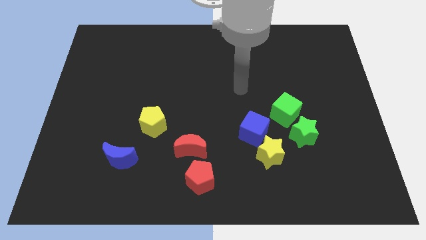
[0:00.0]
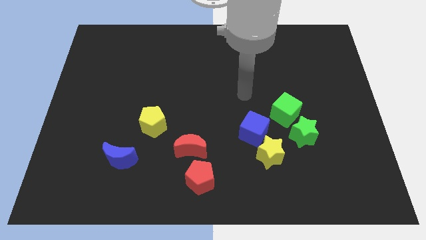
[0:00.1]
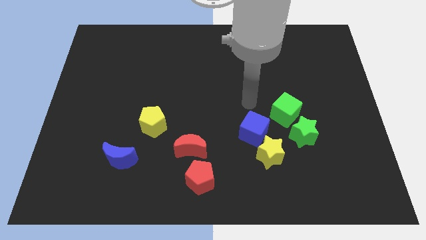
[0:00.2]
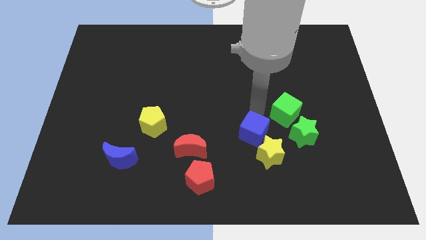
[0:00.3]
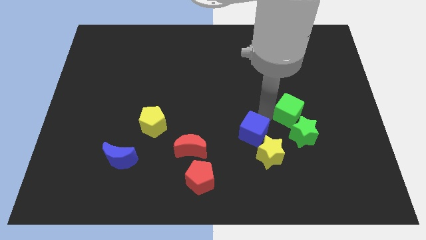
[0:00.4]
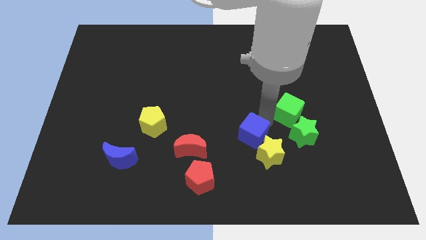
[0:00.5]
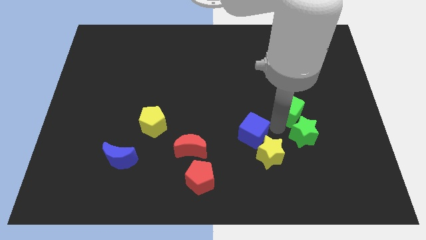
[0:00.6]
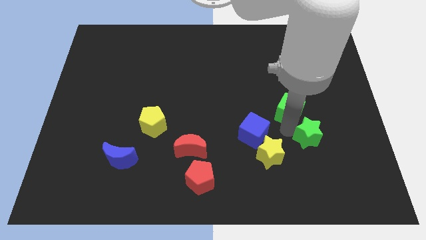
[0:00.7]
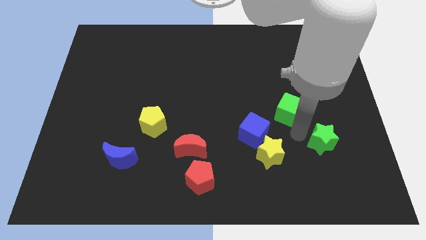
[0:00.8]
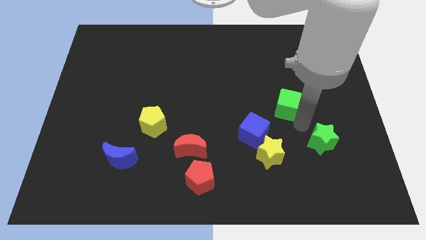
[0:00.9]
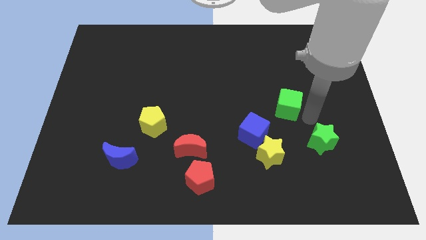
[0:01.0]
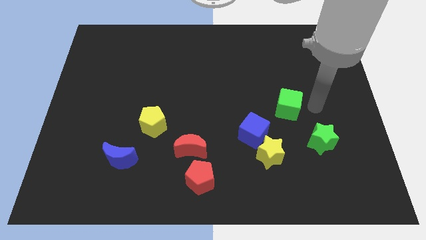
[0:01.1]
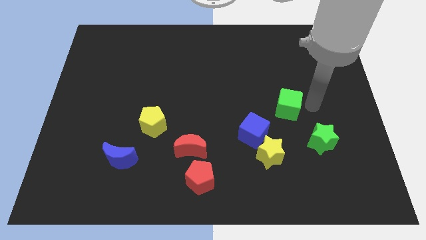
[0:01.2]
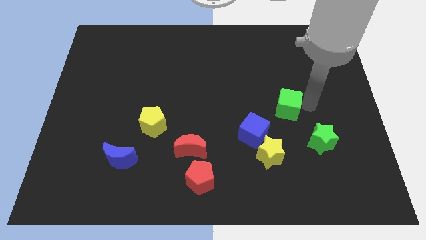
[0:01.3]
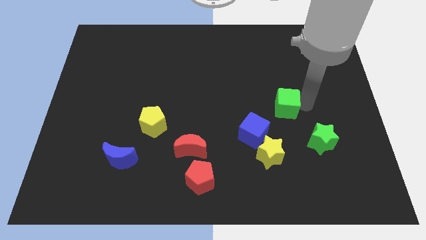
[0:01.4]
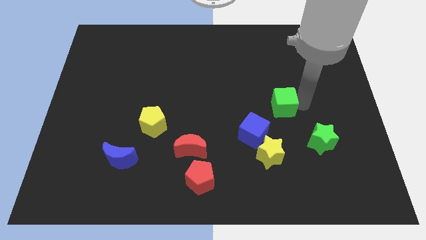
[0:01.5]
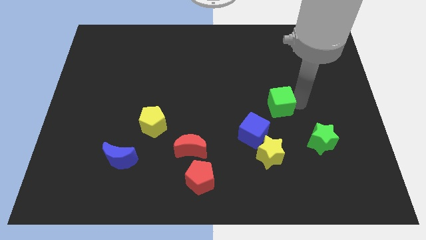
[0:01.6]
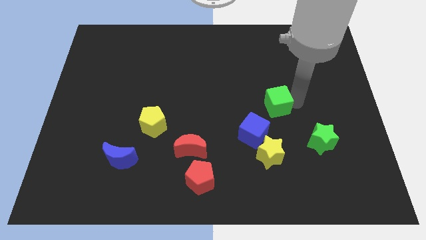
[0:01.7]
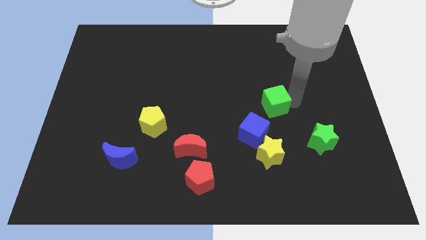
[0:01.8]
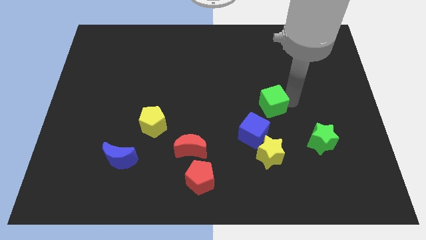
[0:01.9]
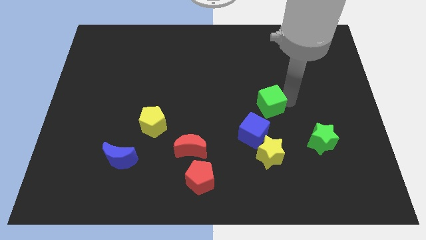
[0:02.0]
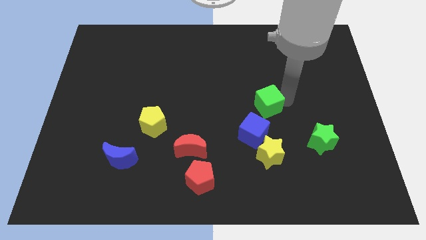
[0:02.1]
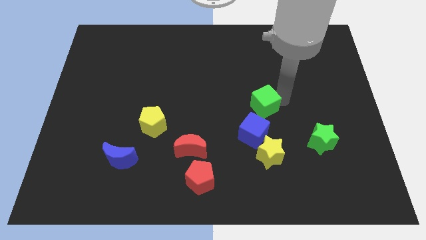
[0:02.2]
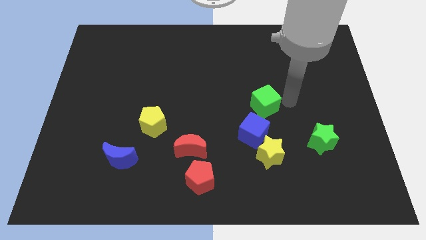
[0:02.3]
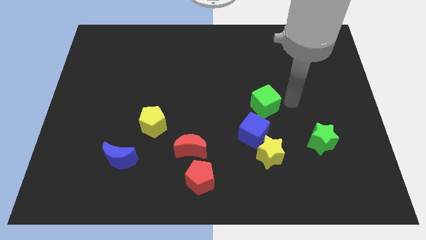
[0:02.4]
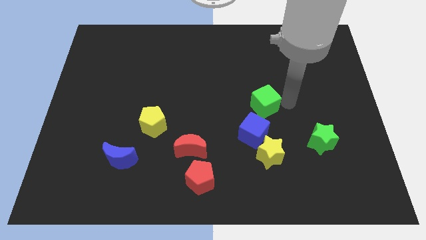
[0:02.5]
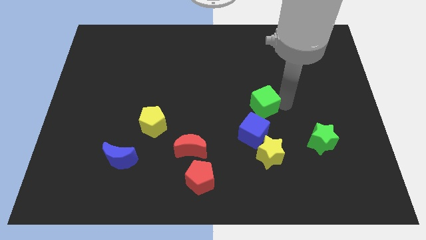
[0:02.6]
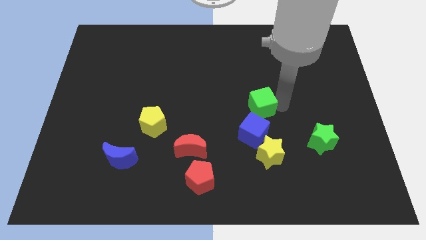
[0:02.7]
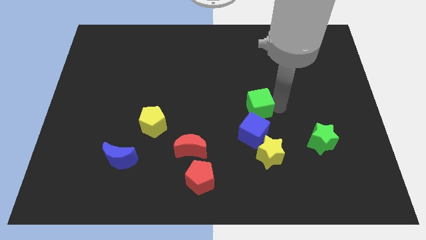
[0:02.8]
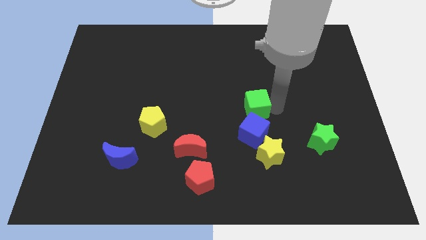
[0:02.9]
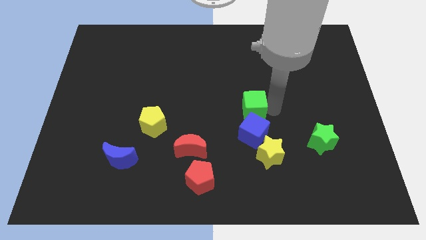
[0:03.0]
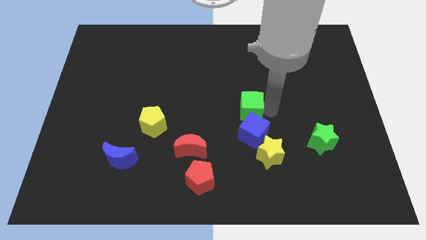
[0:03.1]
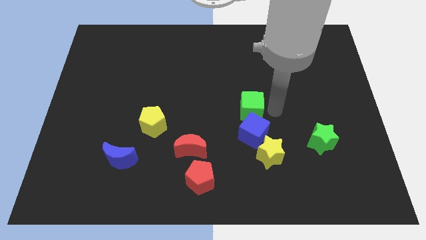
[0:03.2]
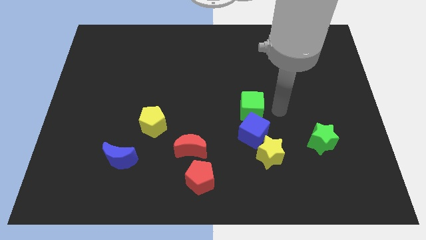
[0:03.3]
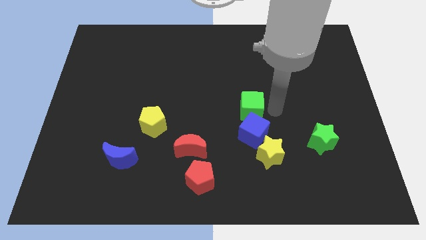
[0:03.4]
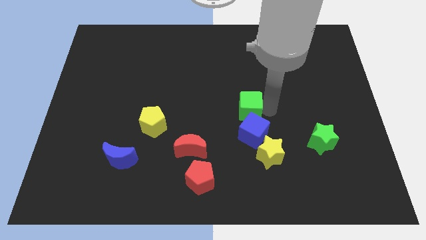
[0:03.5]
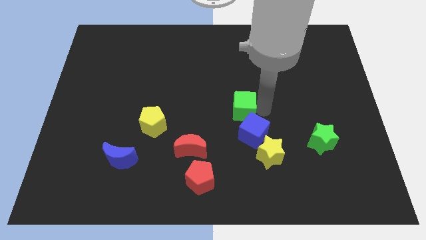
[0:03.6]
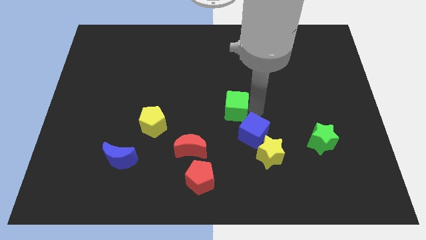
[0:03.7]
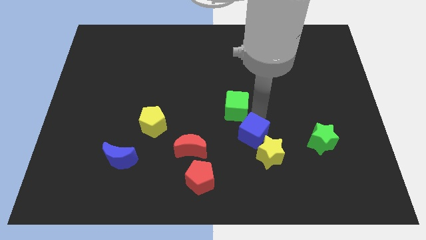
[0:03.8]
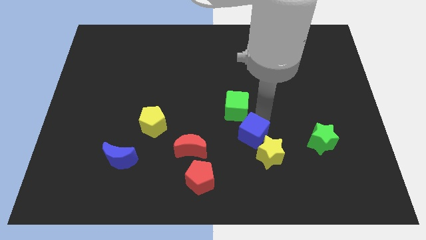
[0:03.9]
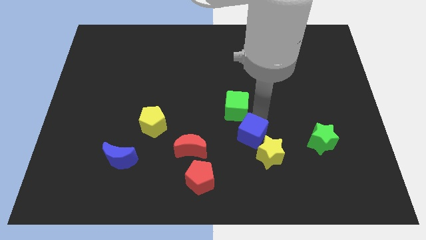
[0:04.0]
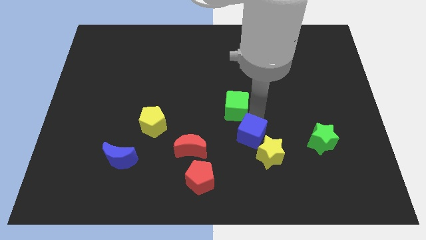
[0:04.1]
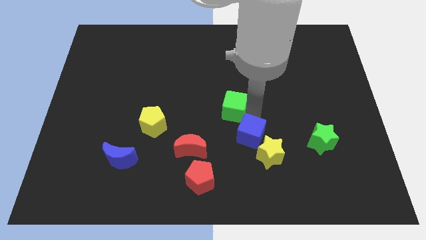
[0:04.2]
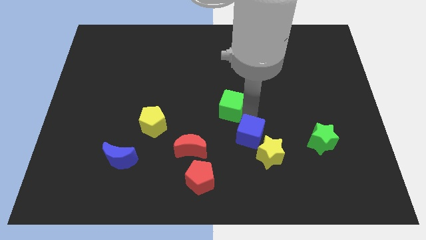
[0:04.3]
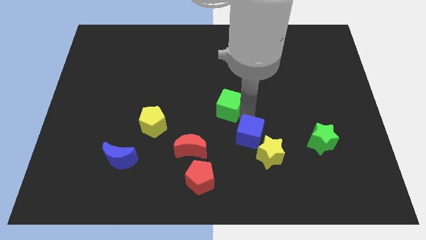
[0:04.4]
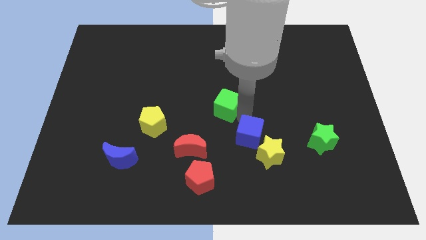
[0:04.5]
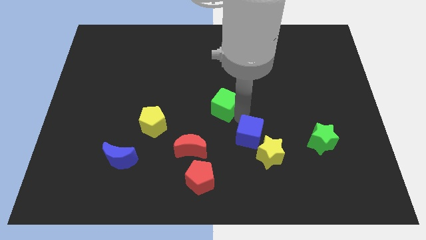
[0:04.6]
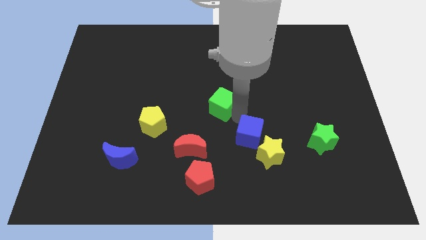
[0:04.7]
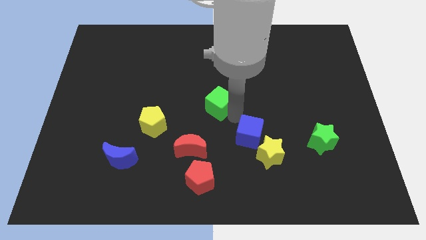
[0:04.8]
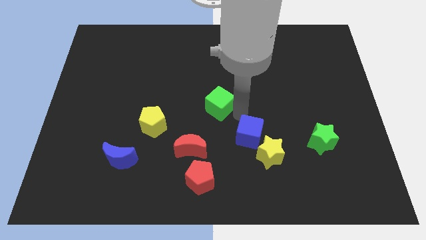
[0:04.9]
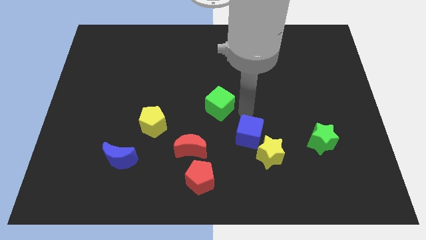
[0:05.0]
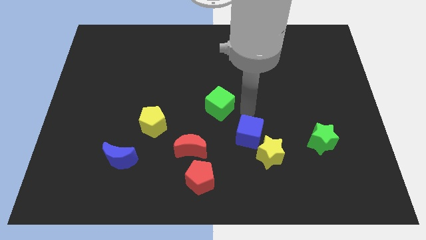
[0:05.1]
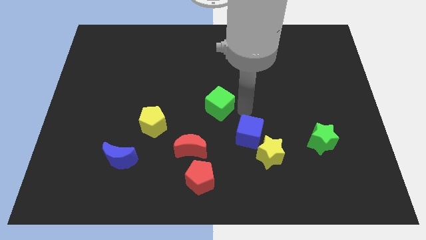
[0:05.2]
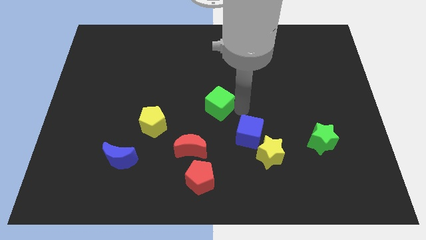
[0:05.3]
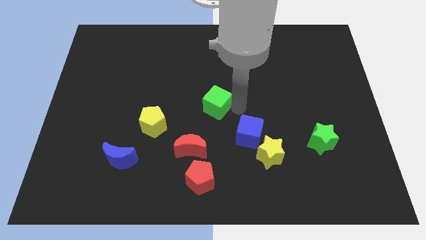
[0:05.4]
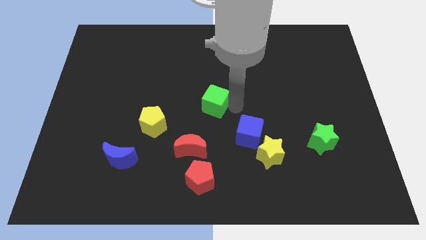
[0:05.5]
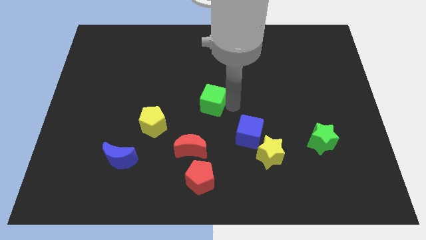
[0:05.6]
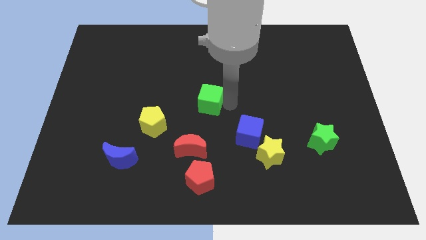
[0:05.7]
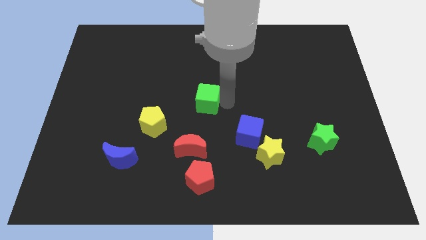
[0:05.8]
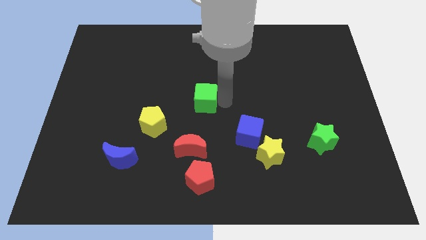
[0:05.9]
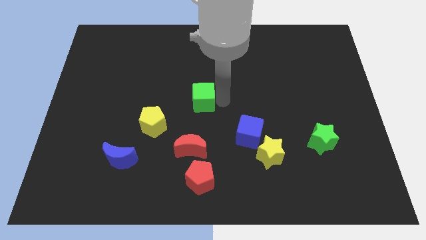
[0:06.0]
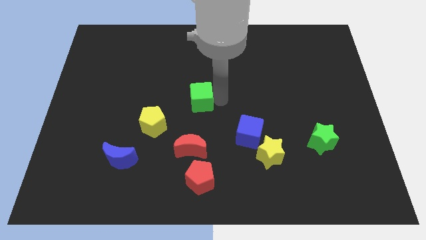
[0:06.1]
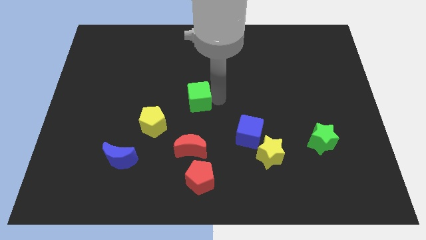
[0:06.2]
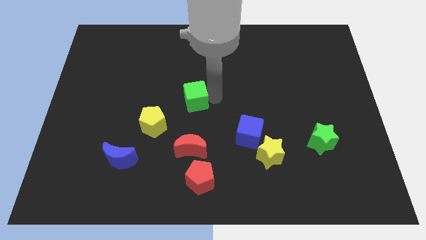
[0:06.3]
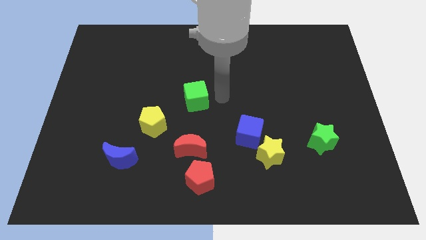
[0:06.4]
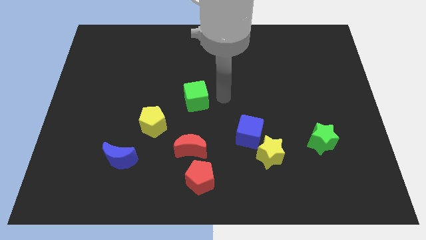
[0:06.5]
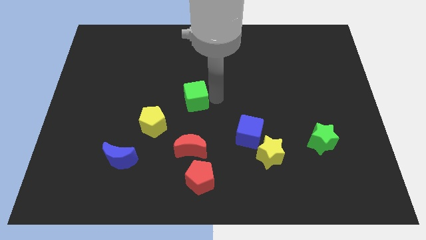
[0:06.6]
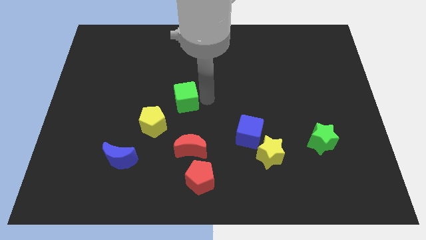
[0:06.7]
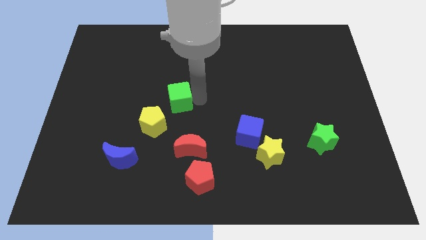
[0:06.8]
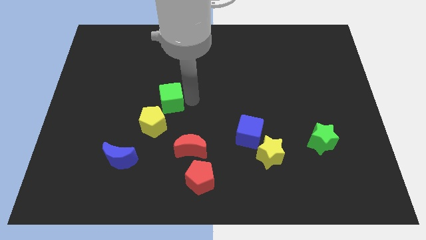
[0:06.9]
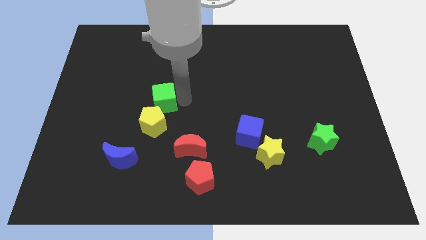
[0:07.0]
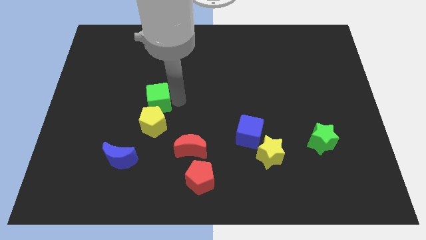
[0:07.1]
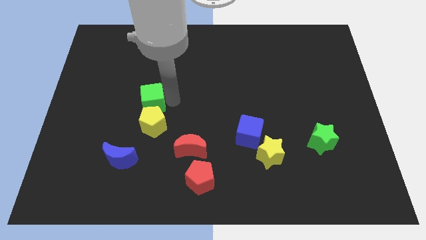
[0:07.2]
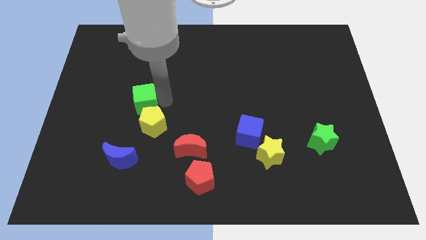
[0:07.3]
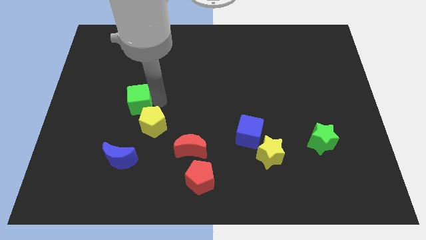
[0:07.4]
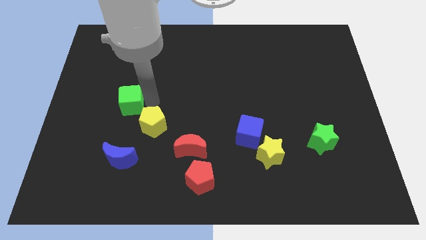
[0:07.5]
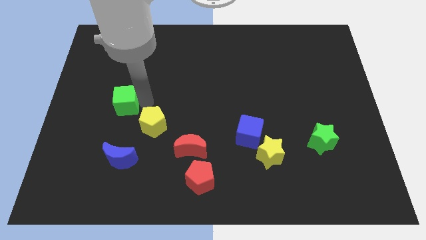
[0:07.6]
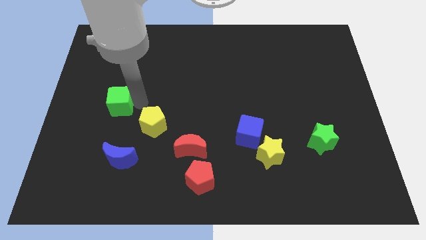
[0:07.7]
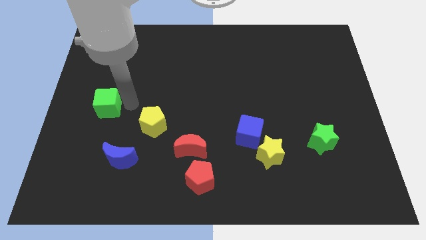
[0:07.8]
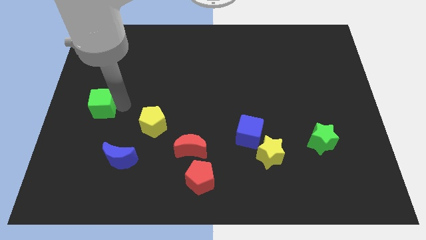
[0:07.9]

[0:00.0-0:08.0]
move the green cube to the left side of the board
